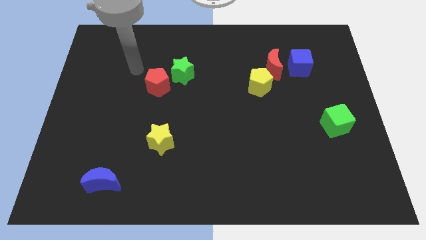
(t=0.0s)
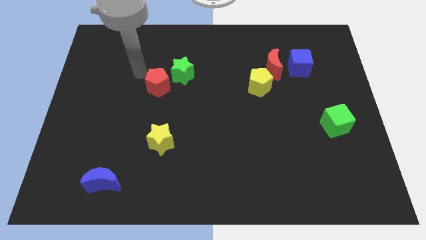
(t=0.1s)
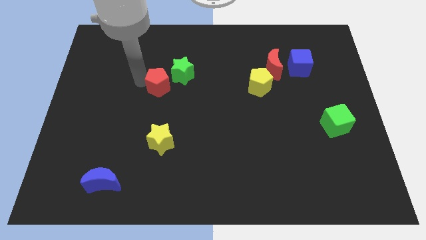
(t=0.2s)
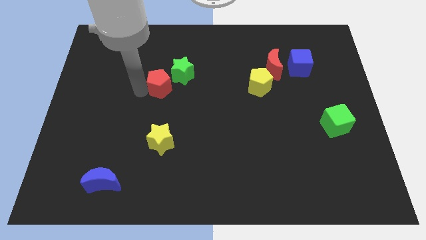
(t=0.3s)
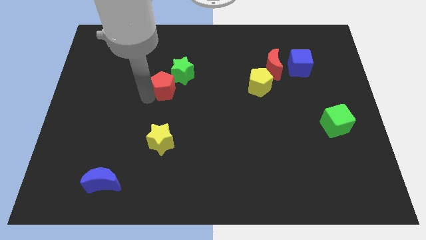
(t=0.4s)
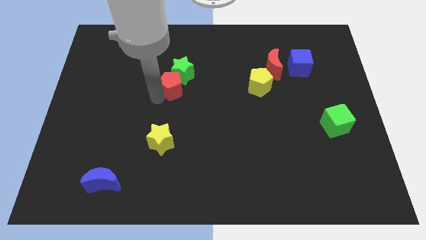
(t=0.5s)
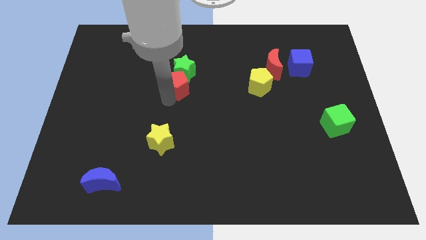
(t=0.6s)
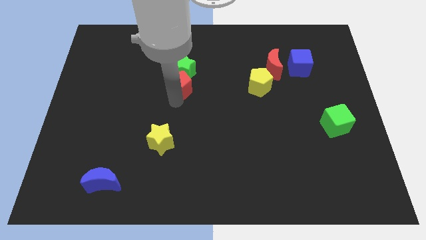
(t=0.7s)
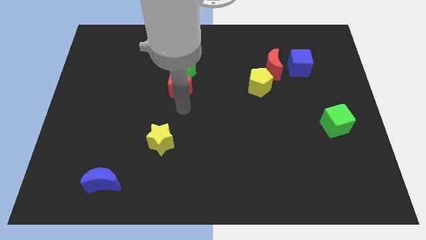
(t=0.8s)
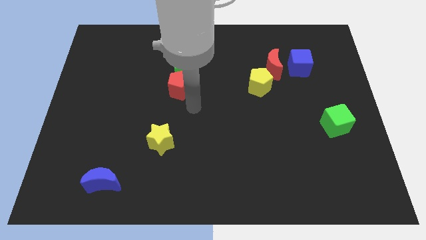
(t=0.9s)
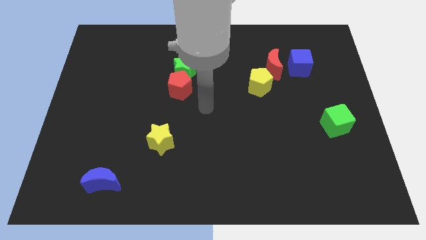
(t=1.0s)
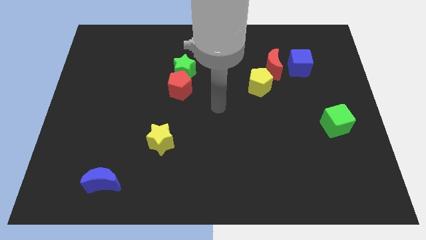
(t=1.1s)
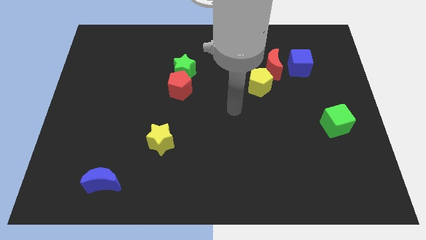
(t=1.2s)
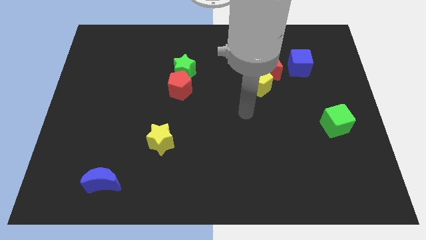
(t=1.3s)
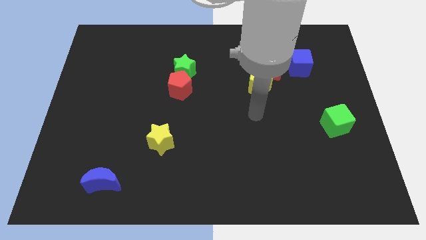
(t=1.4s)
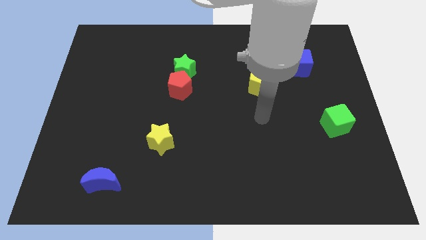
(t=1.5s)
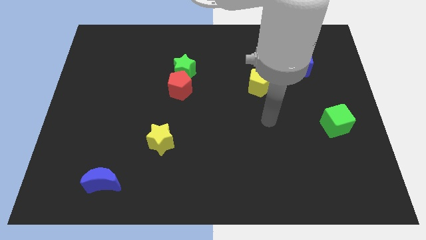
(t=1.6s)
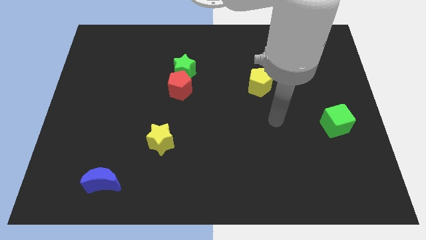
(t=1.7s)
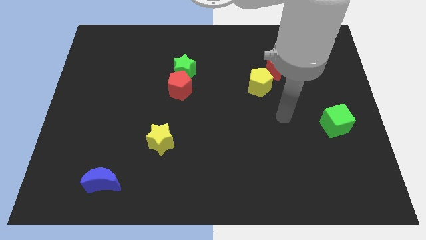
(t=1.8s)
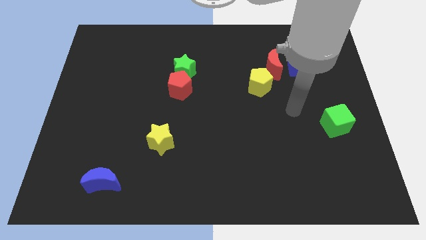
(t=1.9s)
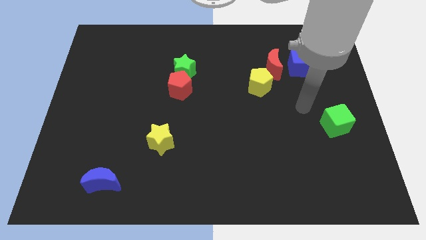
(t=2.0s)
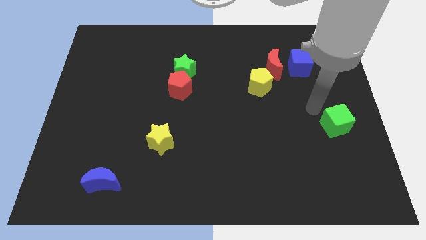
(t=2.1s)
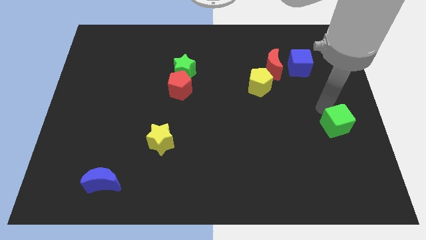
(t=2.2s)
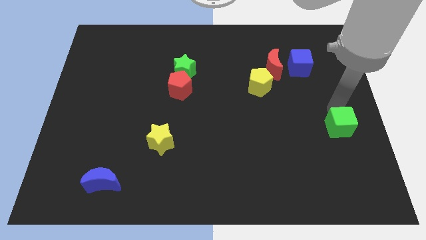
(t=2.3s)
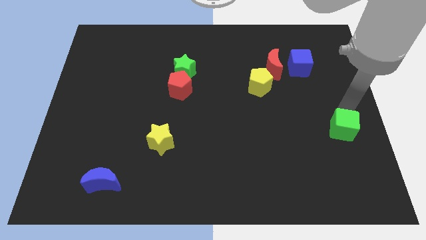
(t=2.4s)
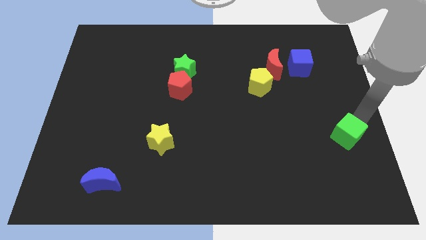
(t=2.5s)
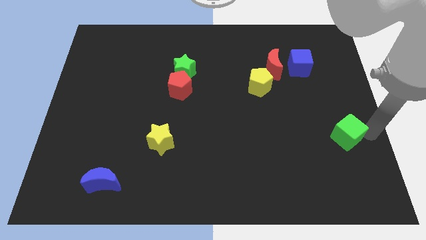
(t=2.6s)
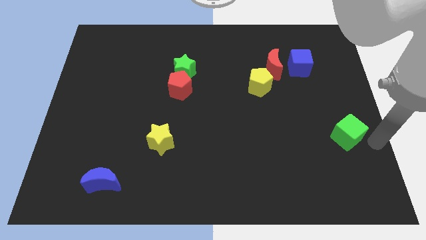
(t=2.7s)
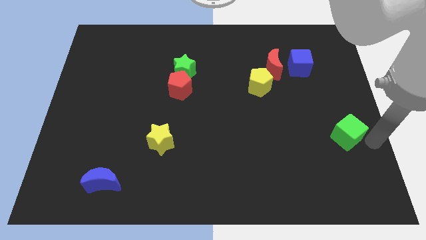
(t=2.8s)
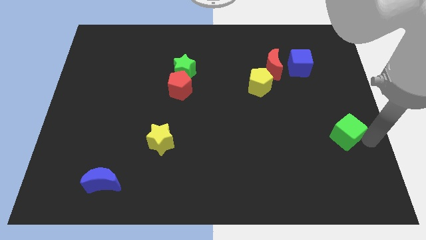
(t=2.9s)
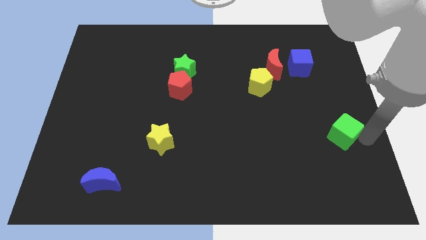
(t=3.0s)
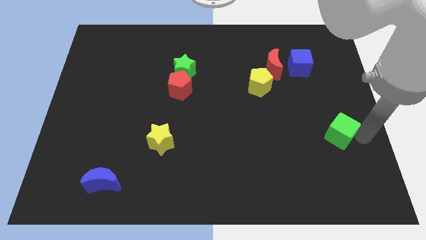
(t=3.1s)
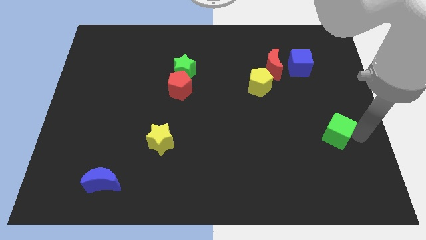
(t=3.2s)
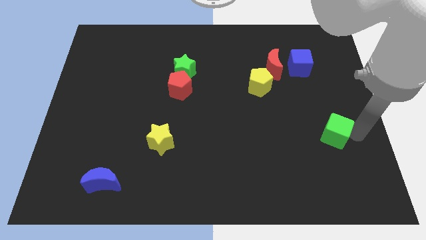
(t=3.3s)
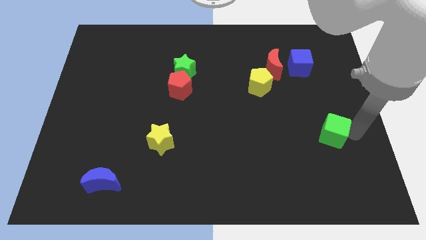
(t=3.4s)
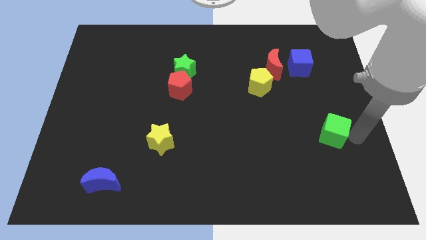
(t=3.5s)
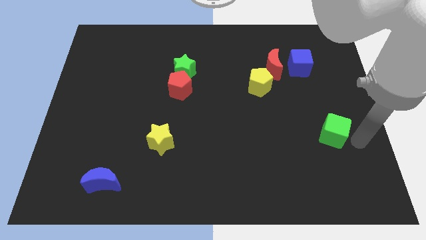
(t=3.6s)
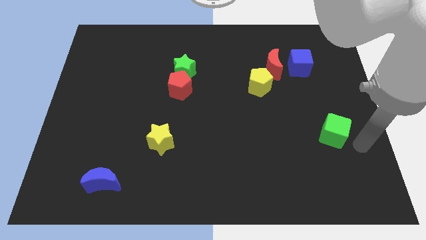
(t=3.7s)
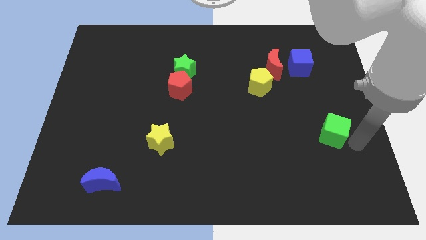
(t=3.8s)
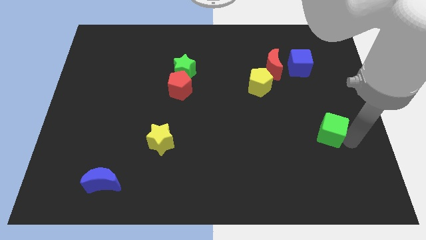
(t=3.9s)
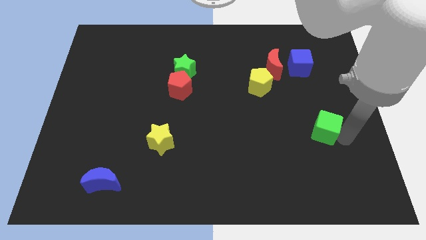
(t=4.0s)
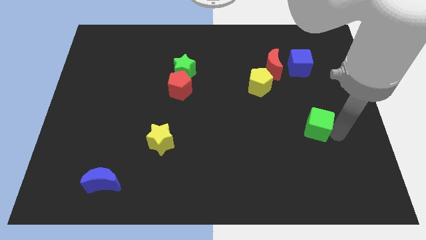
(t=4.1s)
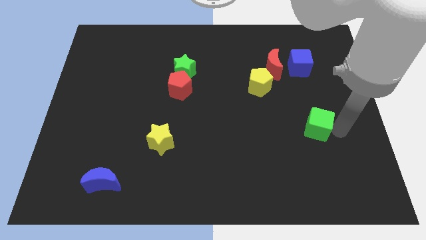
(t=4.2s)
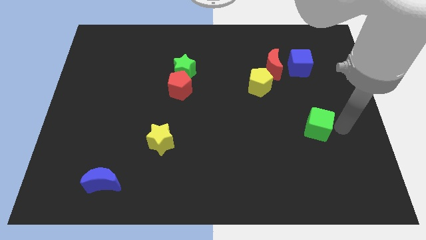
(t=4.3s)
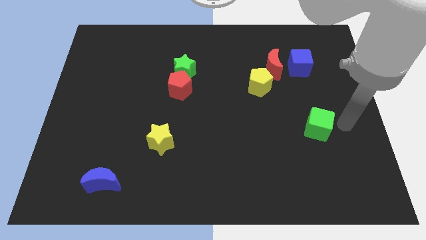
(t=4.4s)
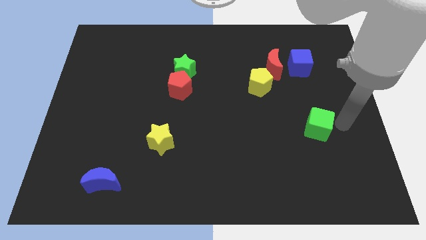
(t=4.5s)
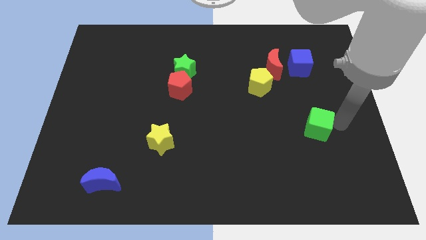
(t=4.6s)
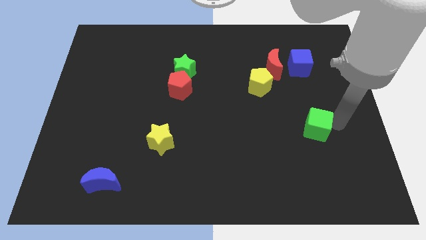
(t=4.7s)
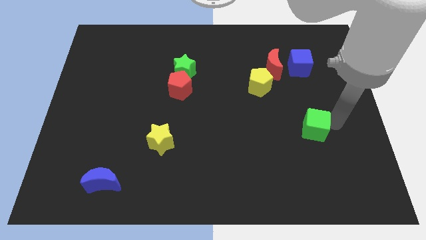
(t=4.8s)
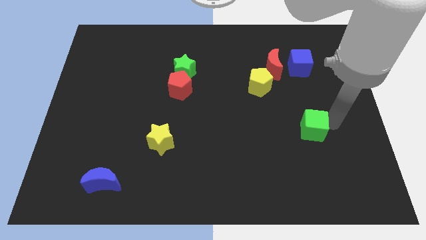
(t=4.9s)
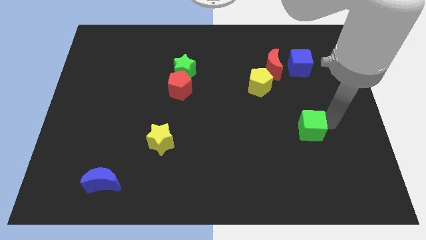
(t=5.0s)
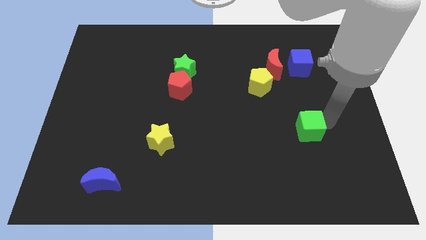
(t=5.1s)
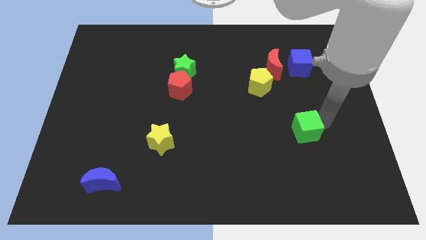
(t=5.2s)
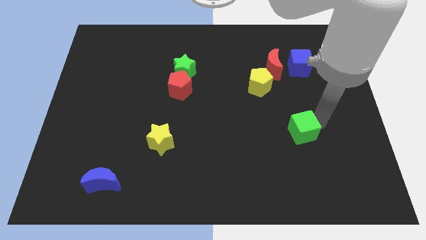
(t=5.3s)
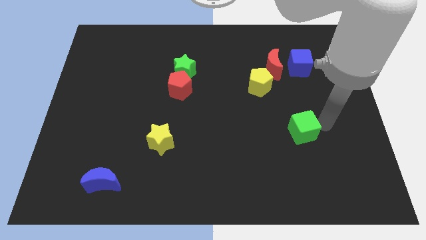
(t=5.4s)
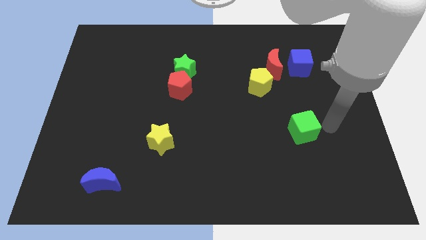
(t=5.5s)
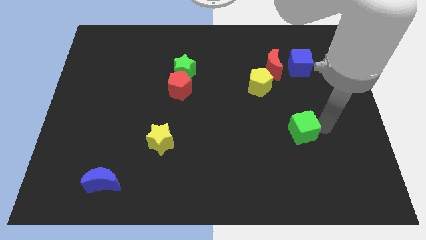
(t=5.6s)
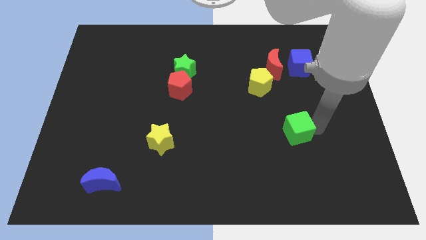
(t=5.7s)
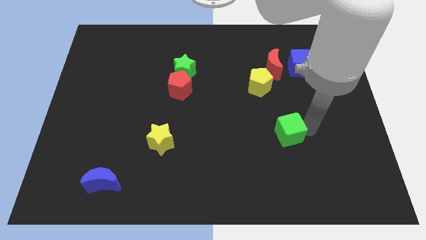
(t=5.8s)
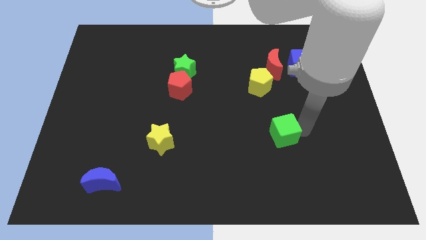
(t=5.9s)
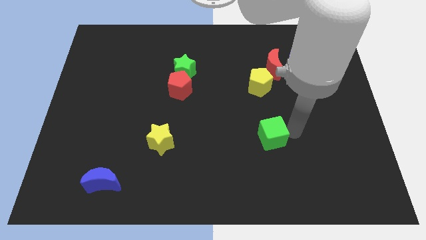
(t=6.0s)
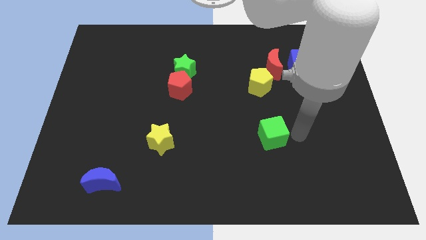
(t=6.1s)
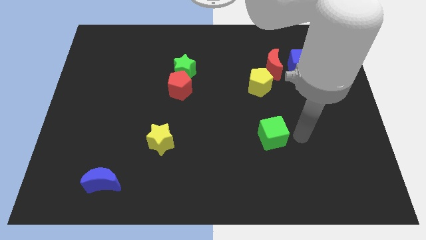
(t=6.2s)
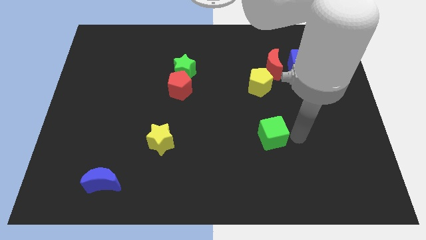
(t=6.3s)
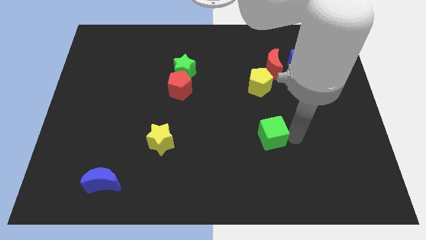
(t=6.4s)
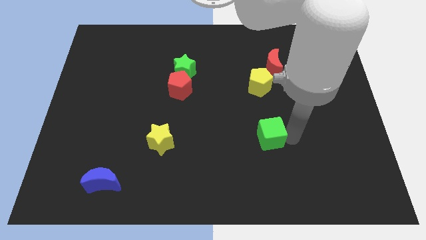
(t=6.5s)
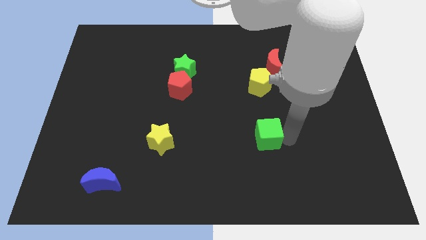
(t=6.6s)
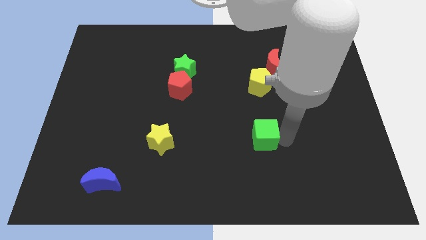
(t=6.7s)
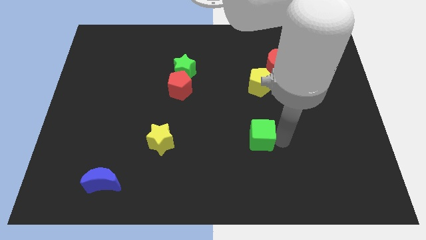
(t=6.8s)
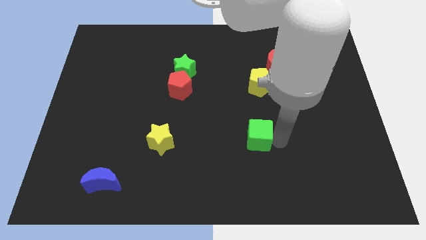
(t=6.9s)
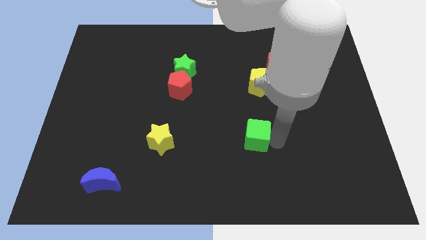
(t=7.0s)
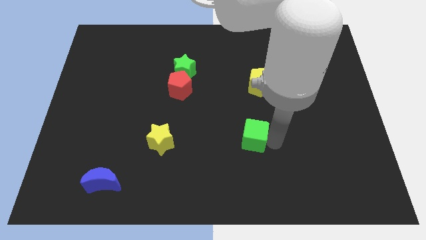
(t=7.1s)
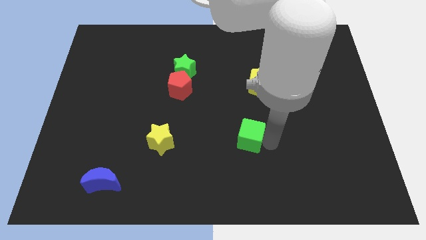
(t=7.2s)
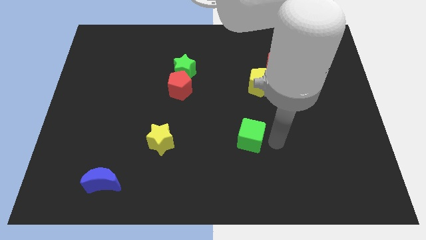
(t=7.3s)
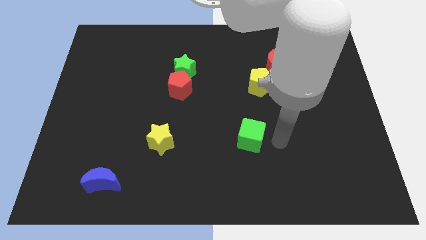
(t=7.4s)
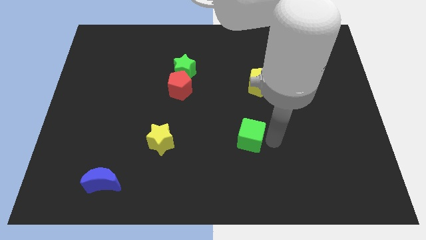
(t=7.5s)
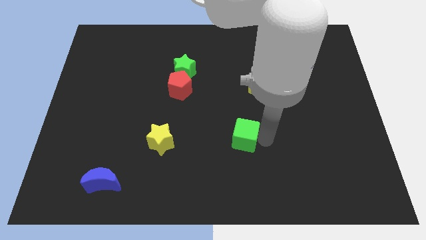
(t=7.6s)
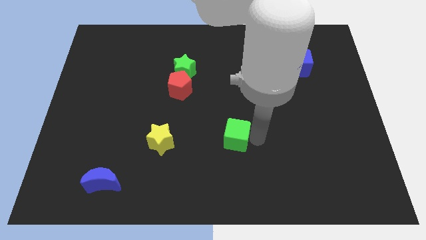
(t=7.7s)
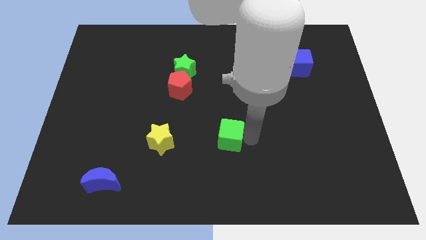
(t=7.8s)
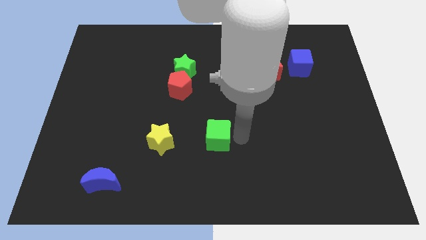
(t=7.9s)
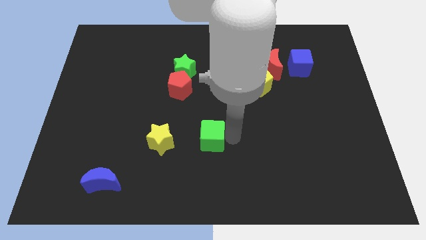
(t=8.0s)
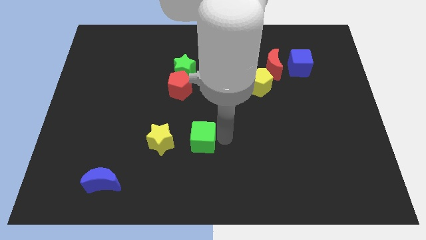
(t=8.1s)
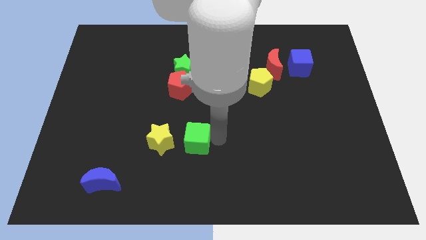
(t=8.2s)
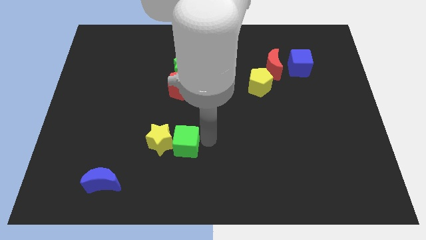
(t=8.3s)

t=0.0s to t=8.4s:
push the green cube close to the yellow star
